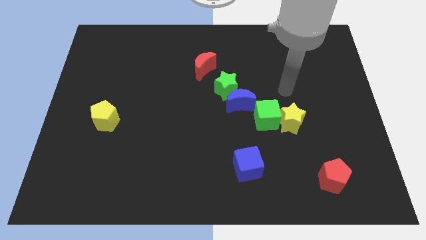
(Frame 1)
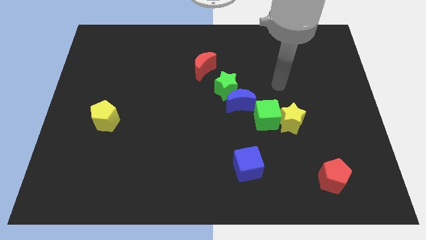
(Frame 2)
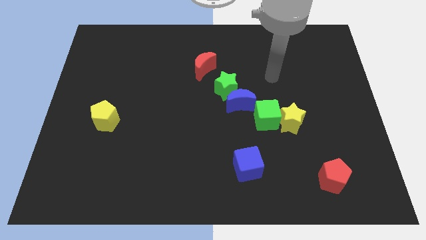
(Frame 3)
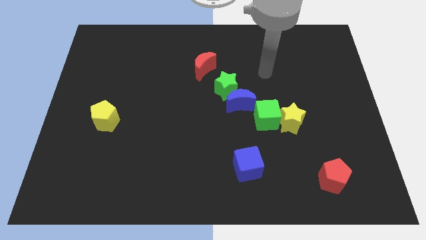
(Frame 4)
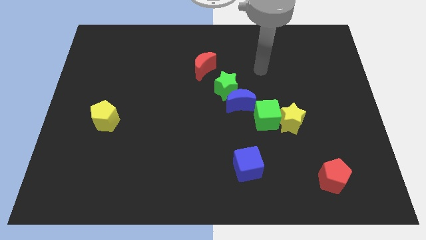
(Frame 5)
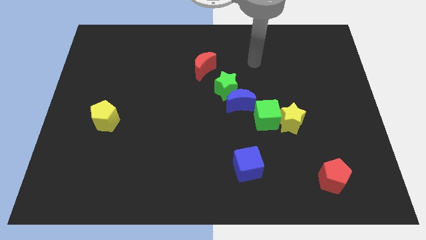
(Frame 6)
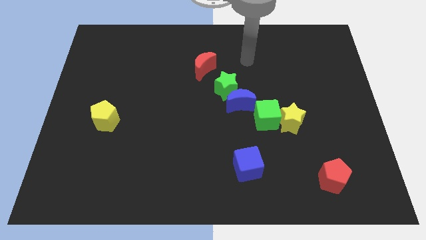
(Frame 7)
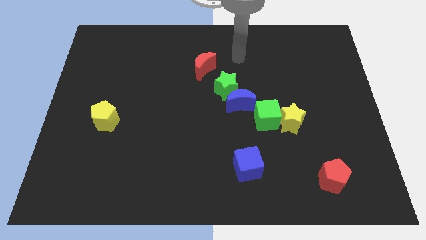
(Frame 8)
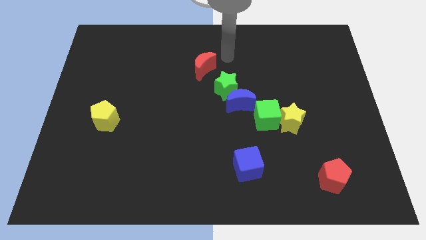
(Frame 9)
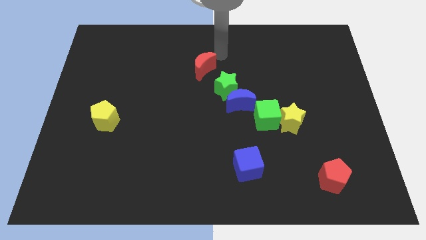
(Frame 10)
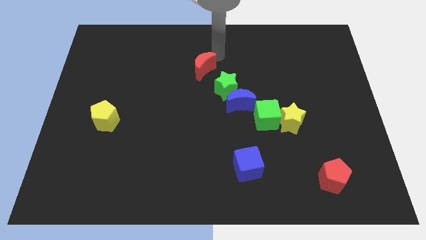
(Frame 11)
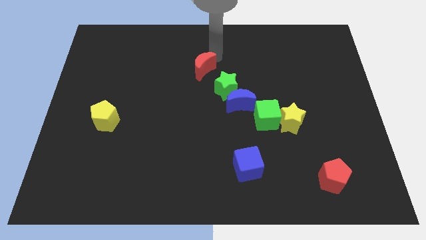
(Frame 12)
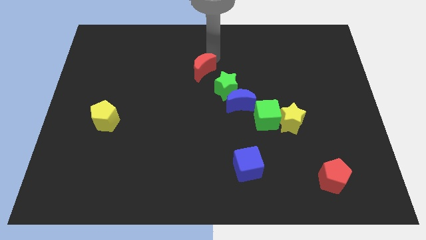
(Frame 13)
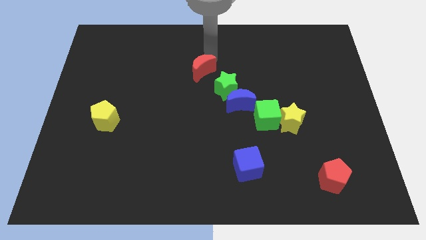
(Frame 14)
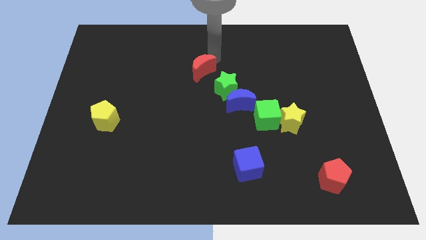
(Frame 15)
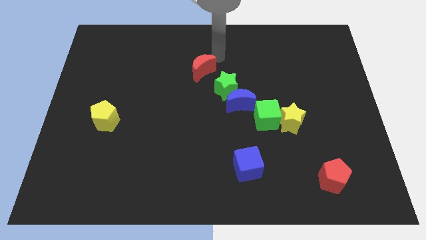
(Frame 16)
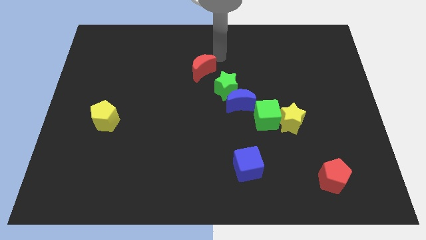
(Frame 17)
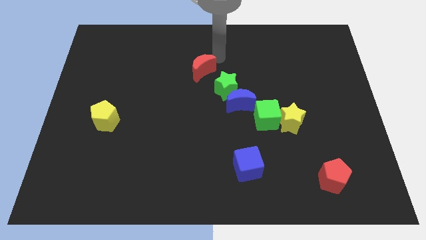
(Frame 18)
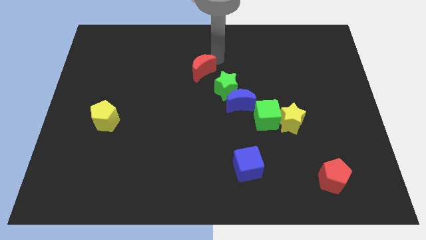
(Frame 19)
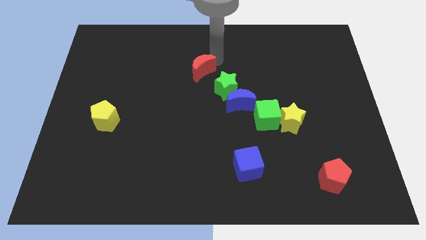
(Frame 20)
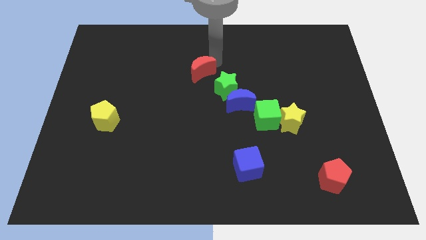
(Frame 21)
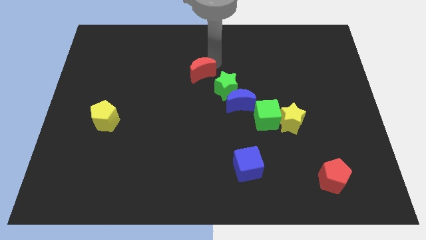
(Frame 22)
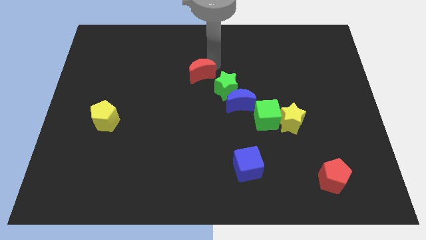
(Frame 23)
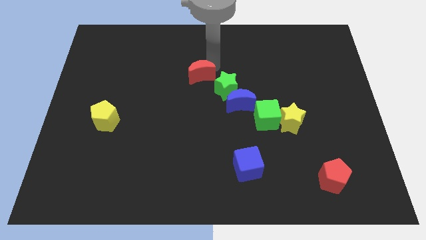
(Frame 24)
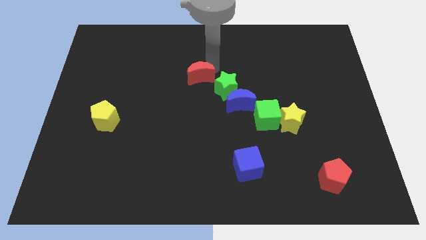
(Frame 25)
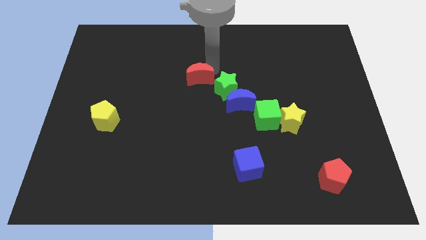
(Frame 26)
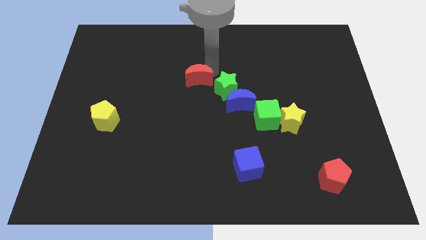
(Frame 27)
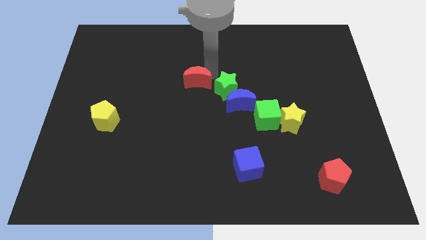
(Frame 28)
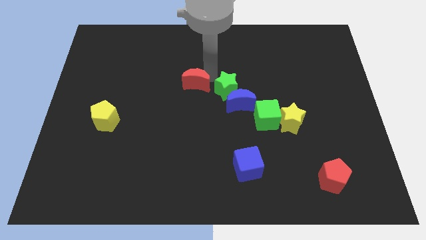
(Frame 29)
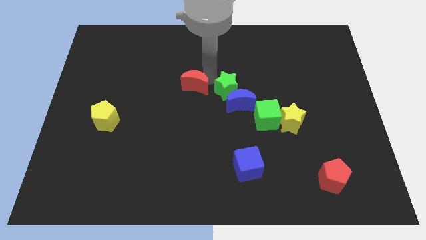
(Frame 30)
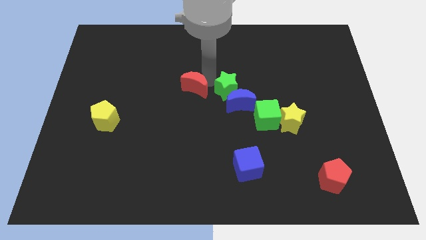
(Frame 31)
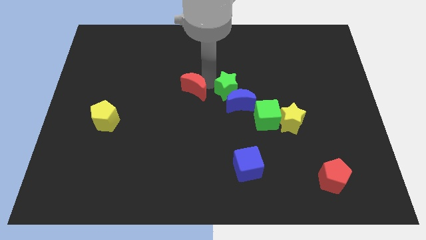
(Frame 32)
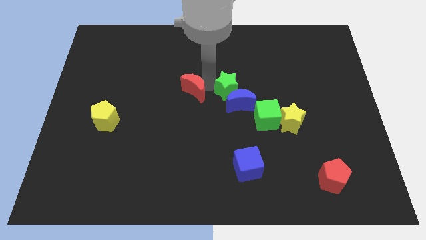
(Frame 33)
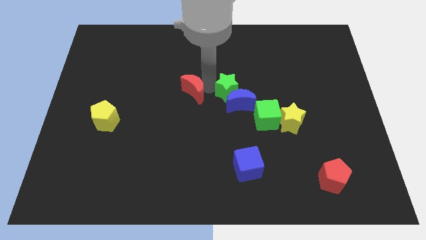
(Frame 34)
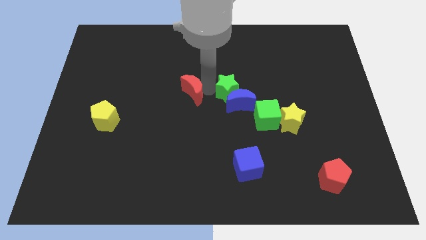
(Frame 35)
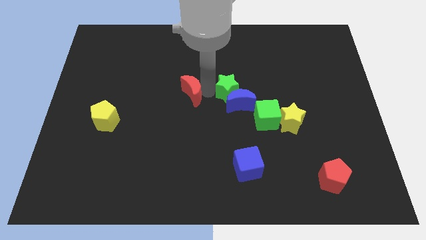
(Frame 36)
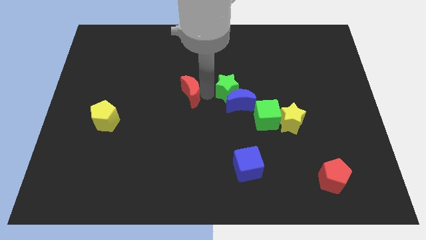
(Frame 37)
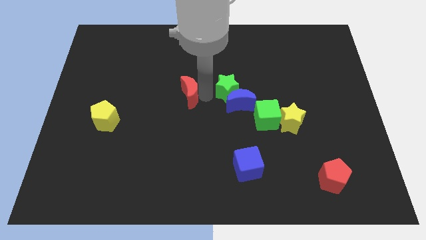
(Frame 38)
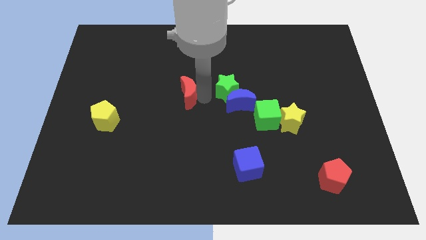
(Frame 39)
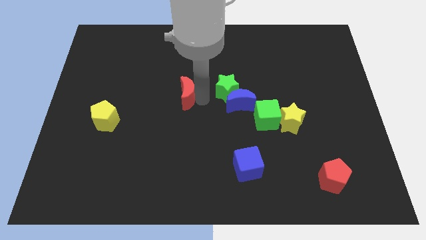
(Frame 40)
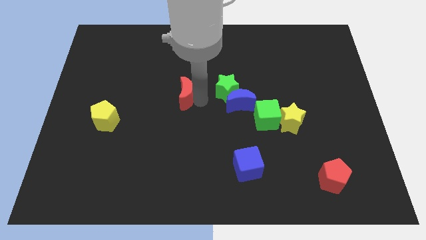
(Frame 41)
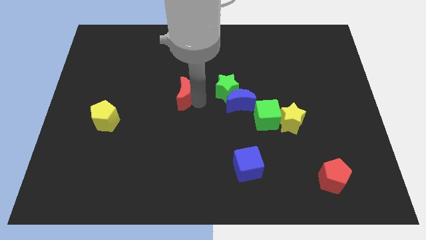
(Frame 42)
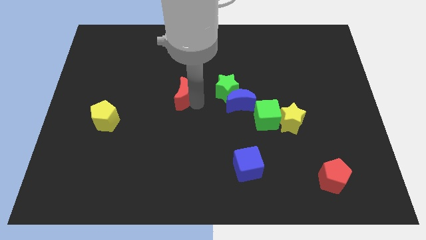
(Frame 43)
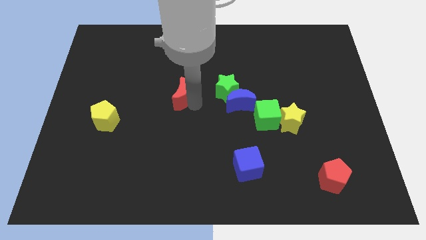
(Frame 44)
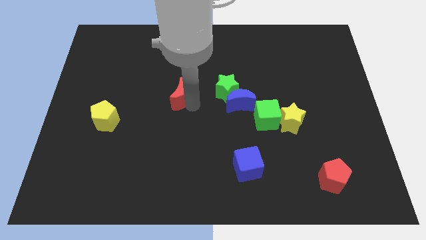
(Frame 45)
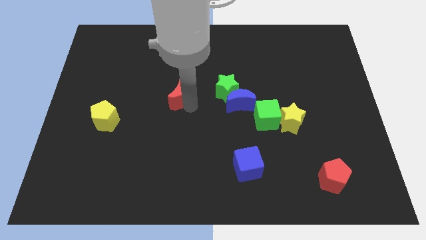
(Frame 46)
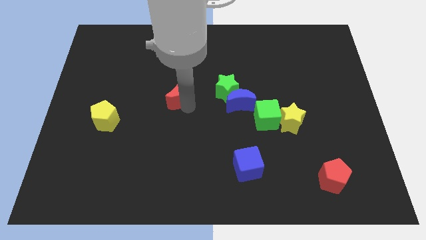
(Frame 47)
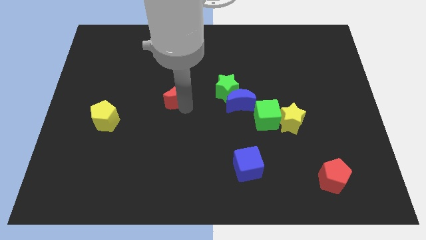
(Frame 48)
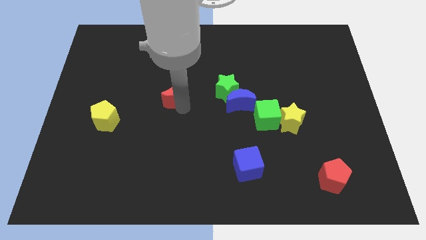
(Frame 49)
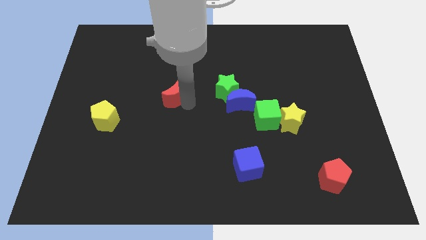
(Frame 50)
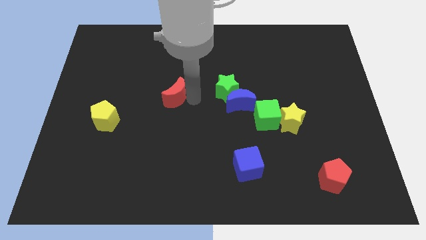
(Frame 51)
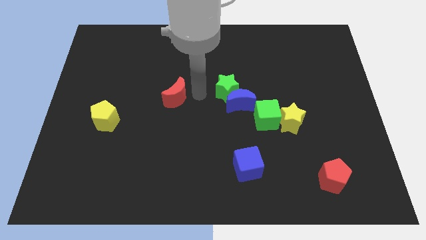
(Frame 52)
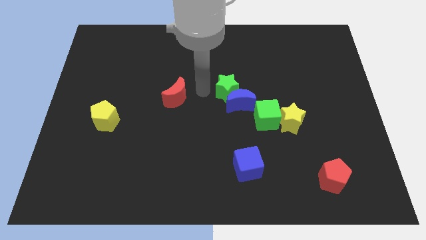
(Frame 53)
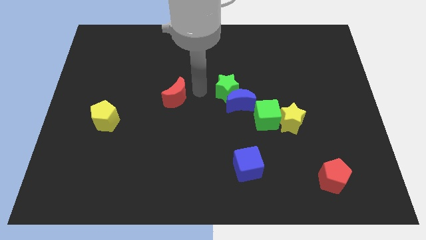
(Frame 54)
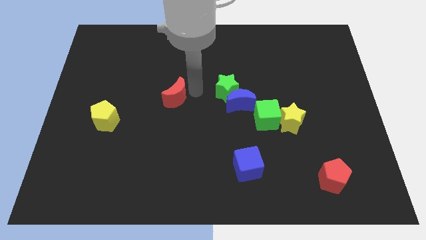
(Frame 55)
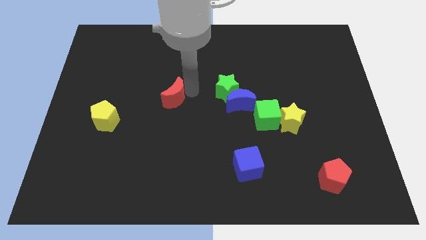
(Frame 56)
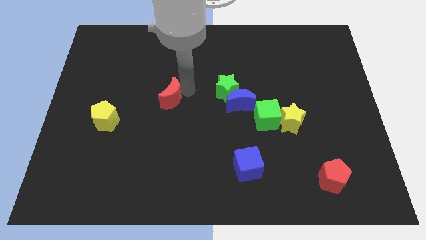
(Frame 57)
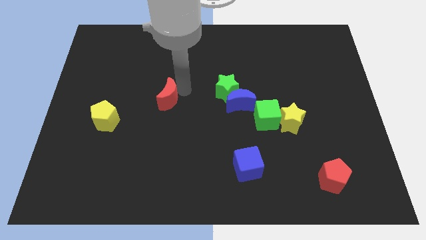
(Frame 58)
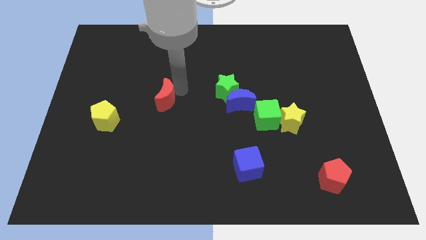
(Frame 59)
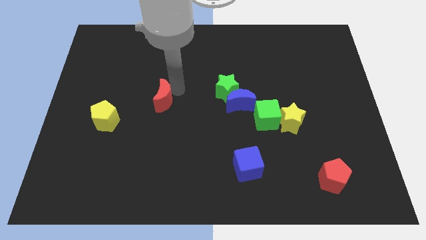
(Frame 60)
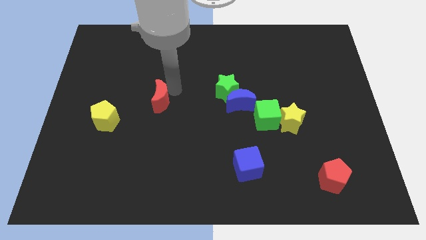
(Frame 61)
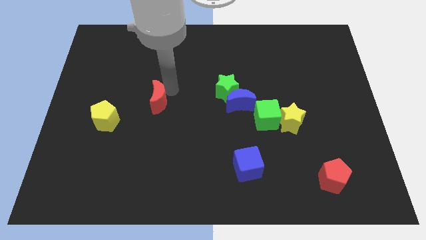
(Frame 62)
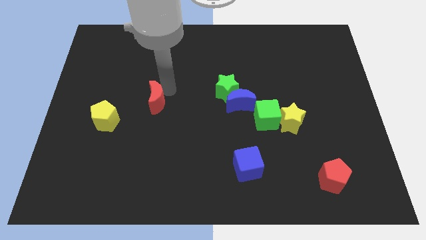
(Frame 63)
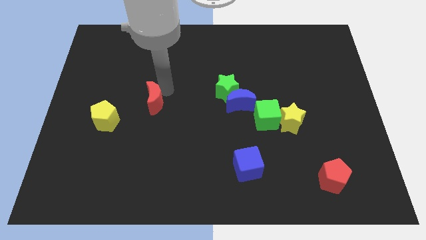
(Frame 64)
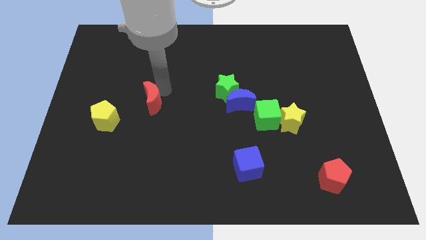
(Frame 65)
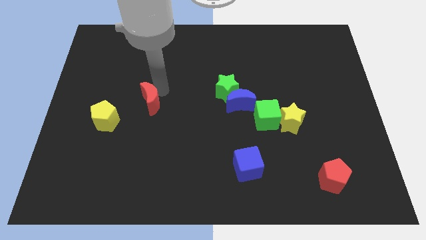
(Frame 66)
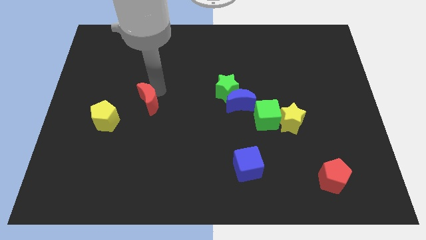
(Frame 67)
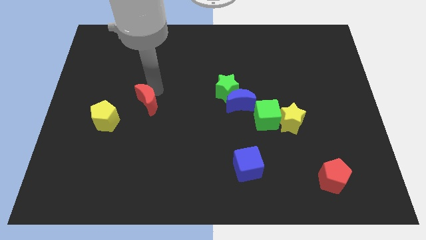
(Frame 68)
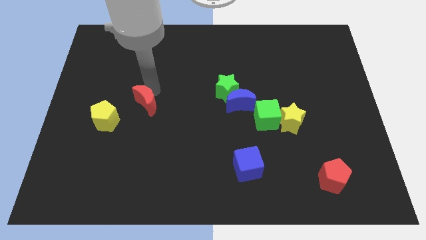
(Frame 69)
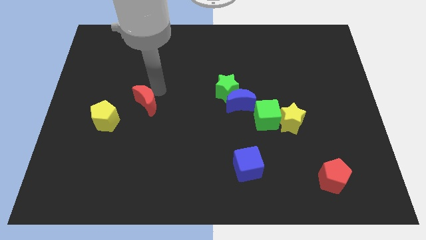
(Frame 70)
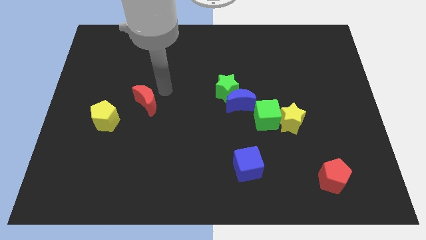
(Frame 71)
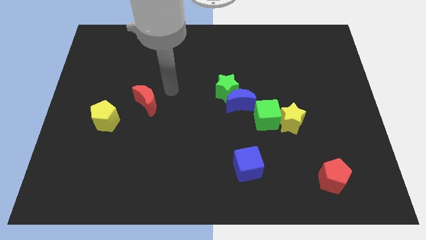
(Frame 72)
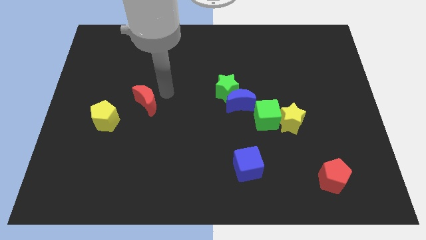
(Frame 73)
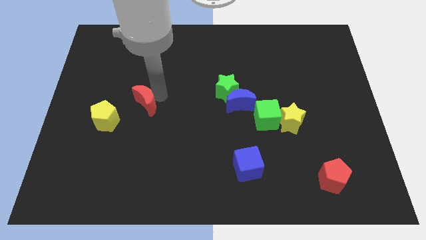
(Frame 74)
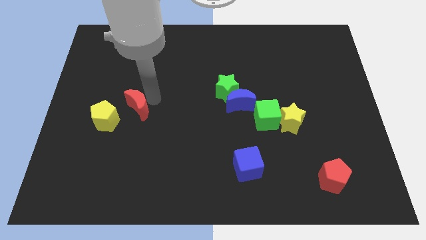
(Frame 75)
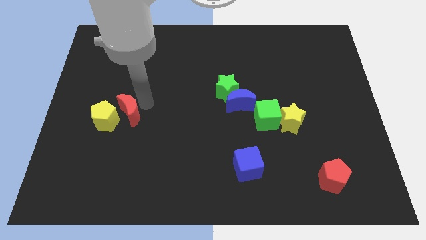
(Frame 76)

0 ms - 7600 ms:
slide the red moon to the yellow pentagon
